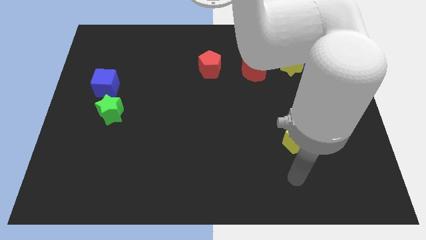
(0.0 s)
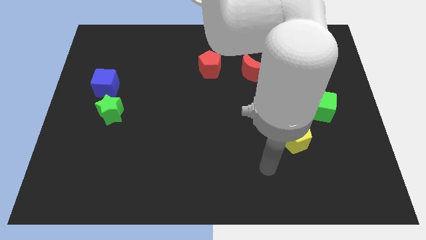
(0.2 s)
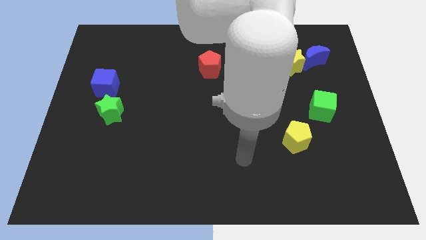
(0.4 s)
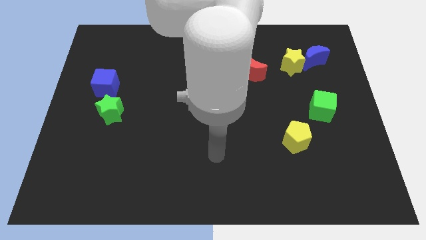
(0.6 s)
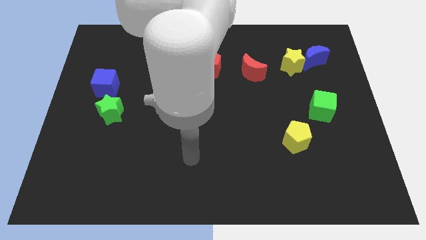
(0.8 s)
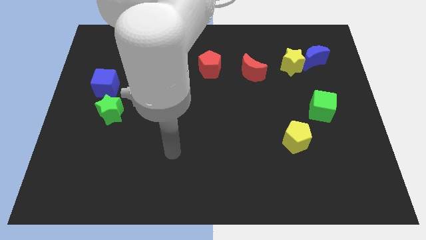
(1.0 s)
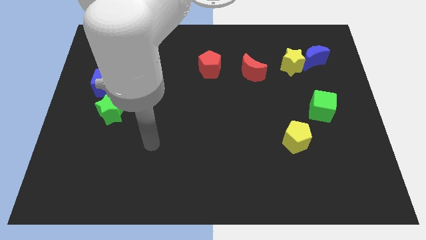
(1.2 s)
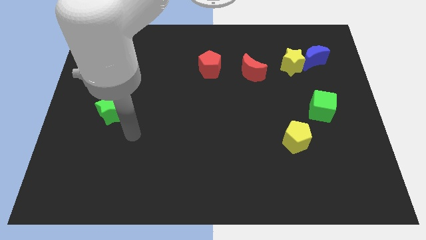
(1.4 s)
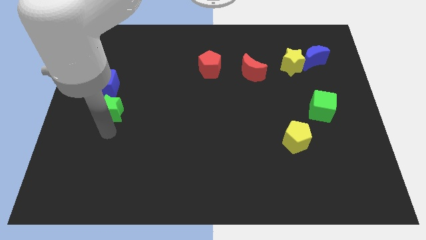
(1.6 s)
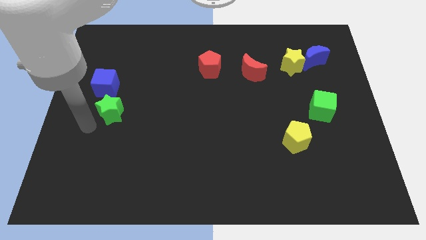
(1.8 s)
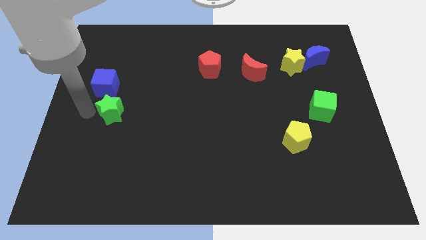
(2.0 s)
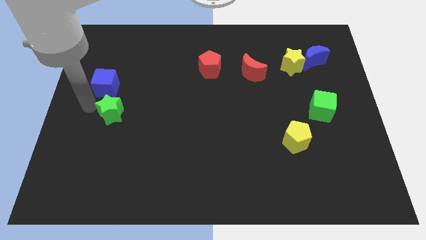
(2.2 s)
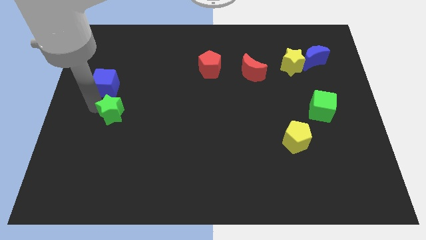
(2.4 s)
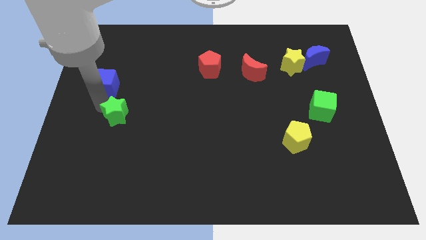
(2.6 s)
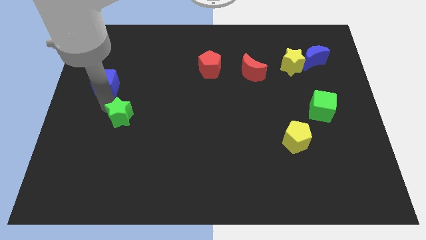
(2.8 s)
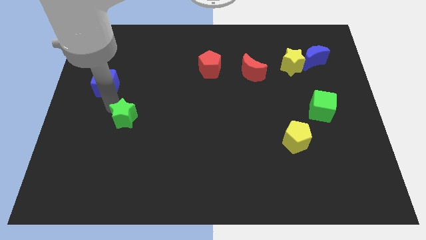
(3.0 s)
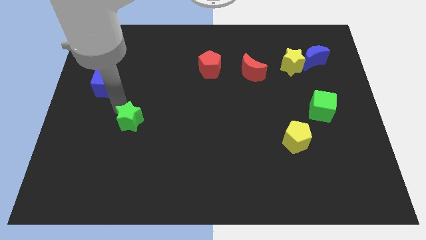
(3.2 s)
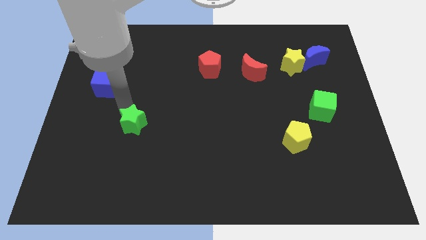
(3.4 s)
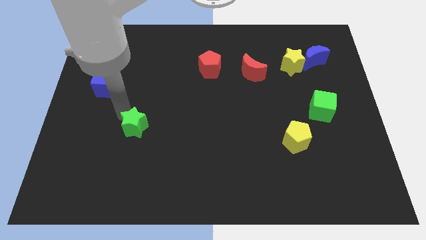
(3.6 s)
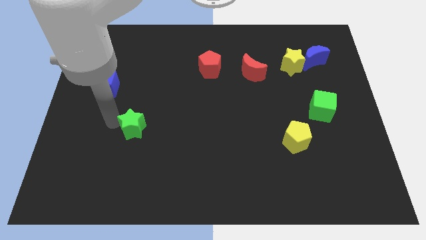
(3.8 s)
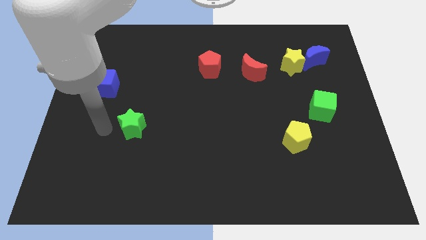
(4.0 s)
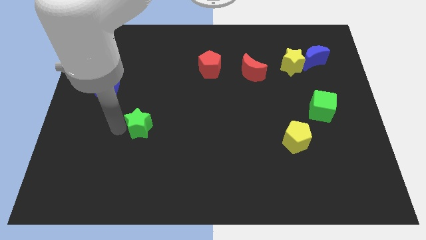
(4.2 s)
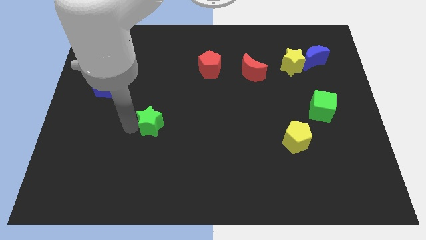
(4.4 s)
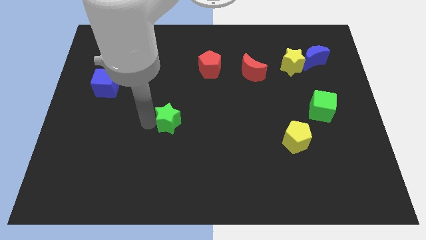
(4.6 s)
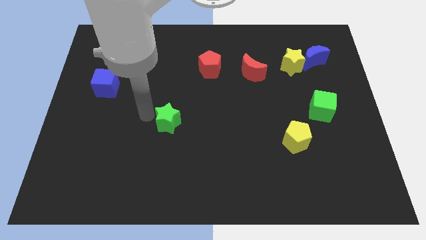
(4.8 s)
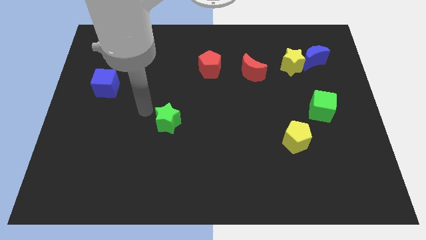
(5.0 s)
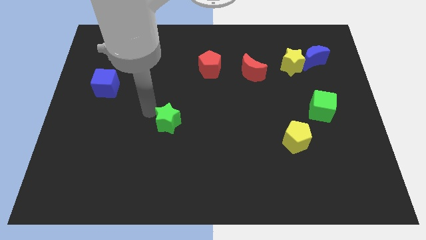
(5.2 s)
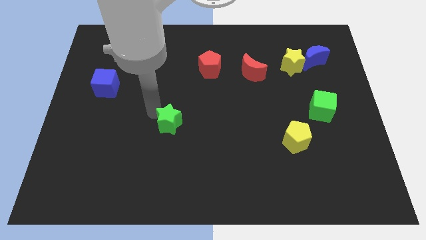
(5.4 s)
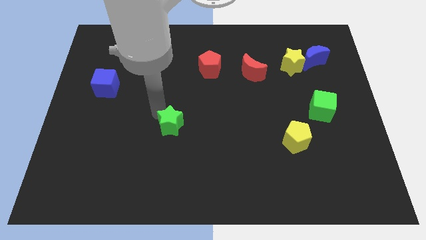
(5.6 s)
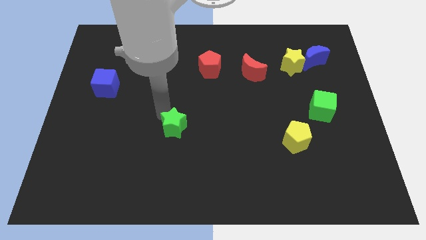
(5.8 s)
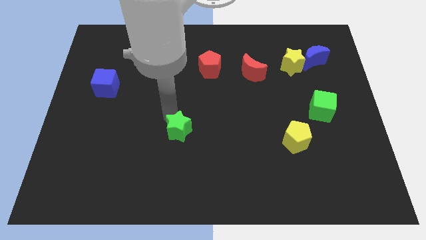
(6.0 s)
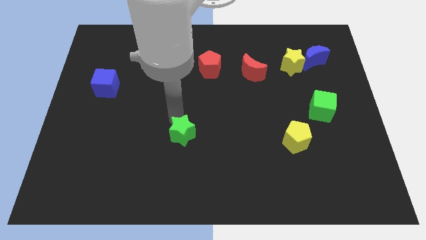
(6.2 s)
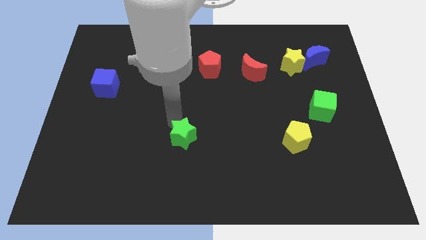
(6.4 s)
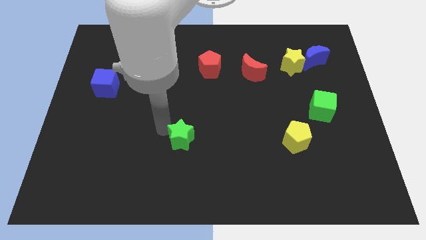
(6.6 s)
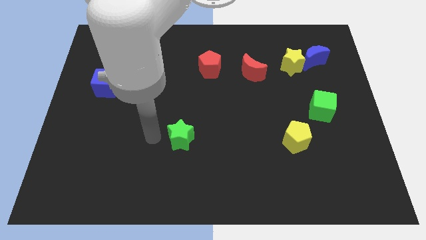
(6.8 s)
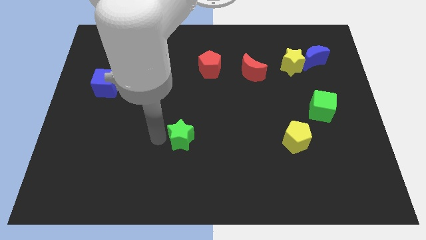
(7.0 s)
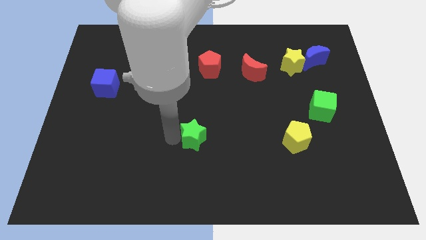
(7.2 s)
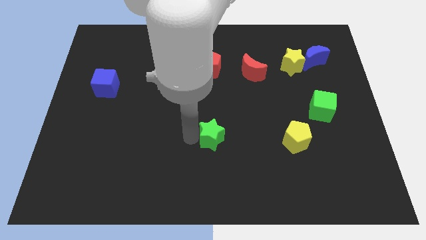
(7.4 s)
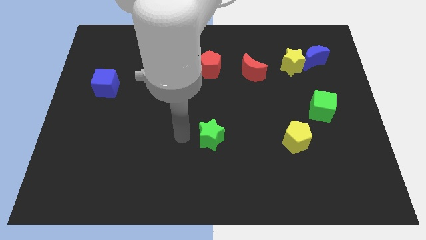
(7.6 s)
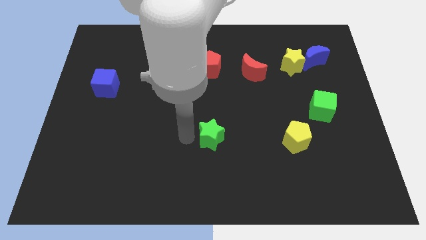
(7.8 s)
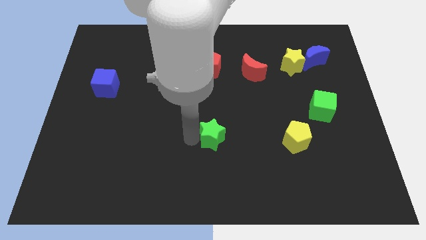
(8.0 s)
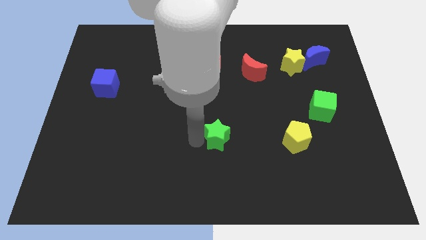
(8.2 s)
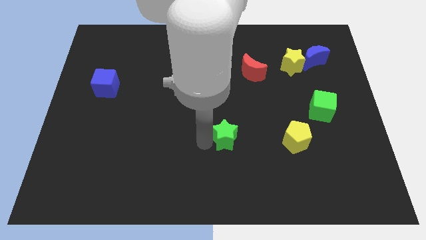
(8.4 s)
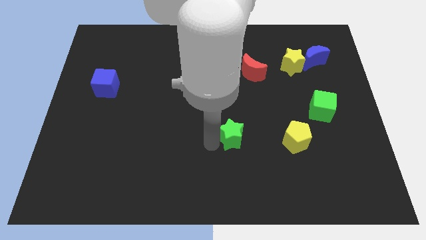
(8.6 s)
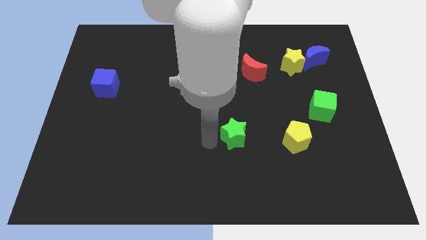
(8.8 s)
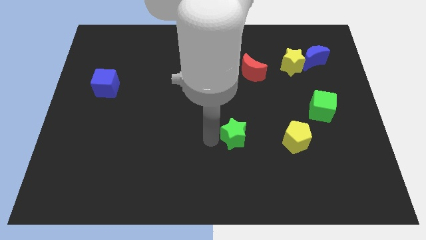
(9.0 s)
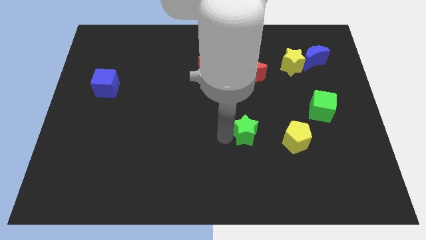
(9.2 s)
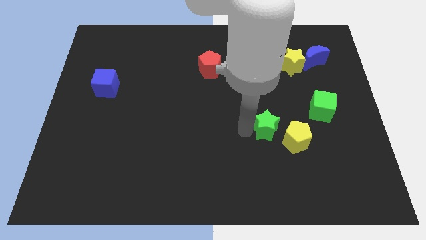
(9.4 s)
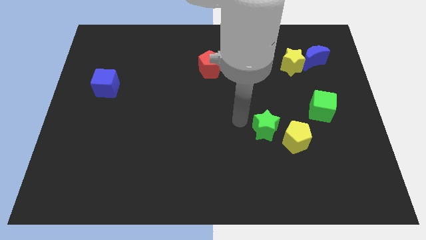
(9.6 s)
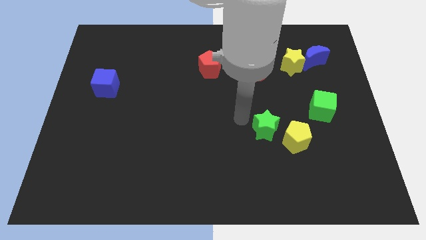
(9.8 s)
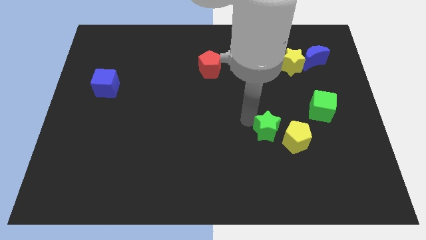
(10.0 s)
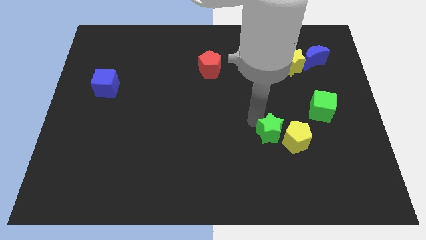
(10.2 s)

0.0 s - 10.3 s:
slide the green star towards the yellow pentagon

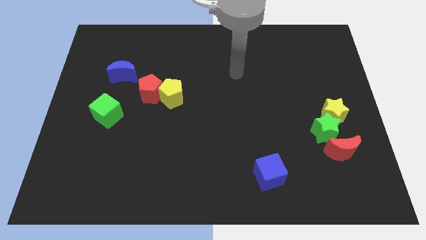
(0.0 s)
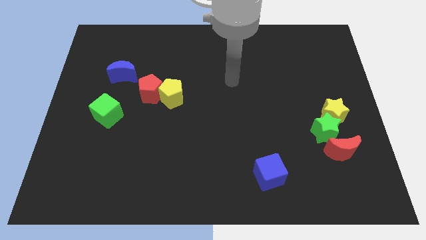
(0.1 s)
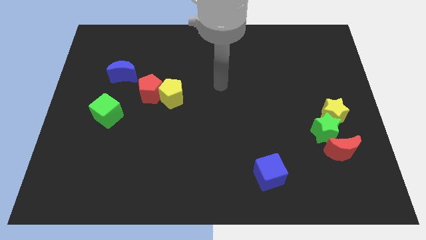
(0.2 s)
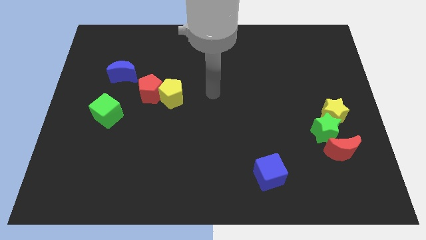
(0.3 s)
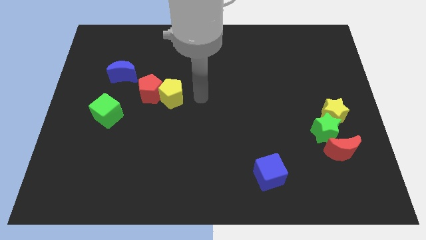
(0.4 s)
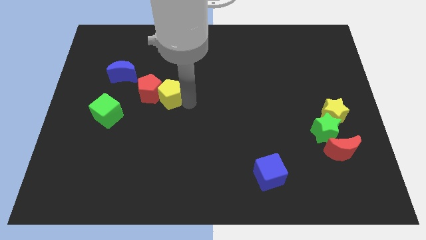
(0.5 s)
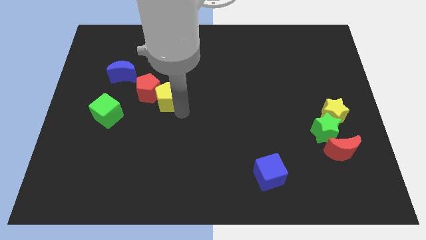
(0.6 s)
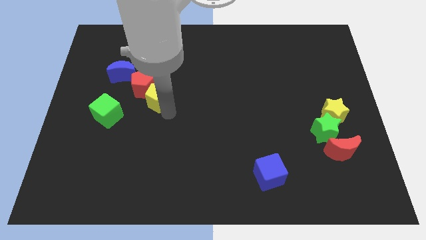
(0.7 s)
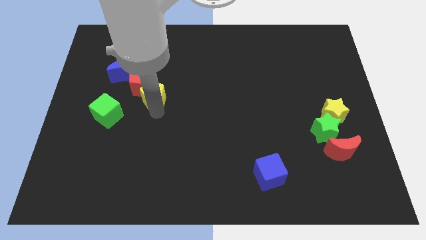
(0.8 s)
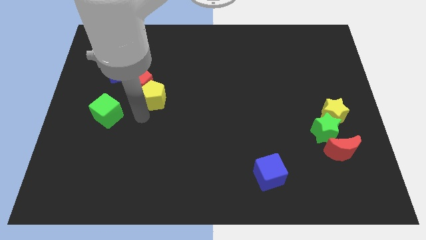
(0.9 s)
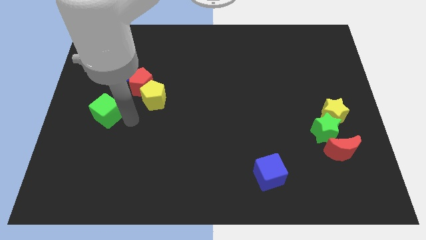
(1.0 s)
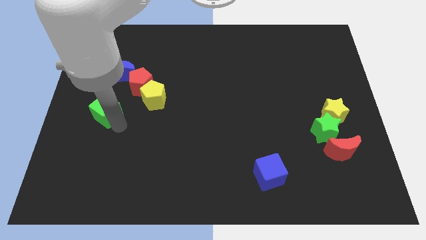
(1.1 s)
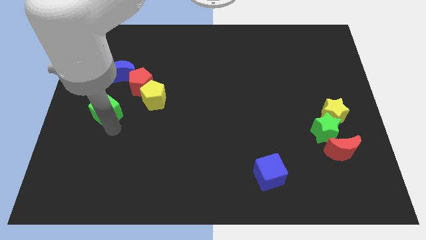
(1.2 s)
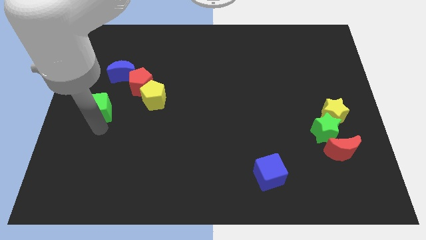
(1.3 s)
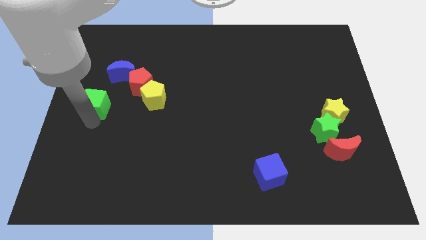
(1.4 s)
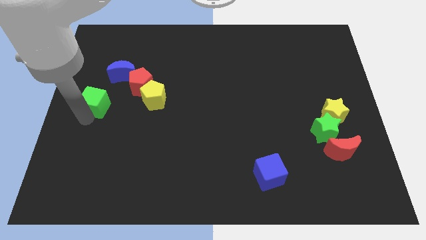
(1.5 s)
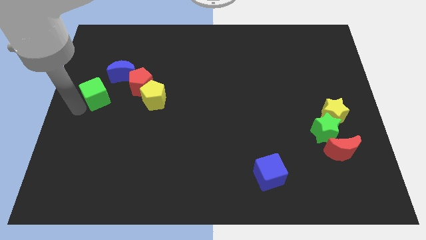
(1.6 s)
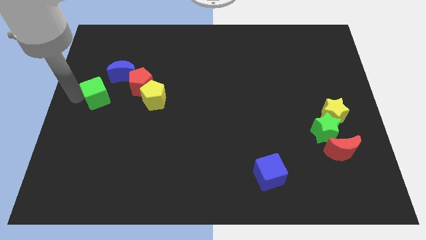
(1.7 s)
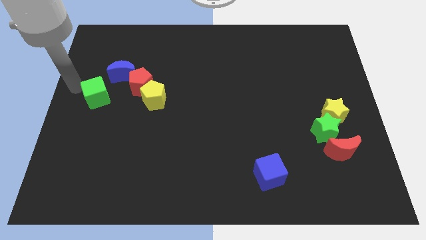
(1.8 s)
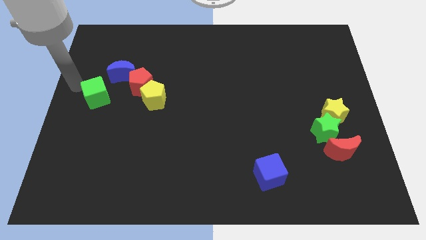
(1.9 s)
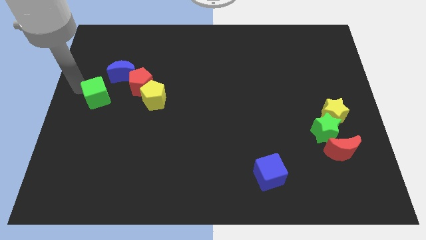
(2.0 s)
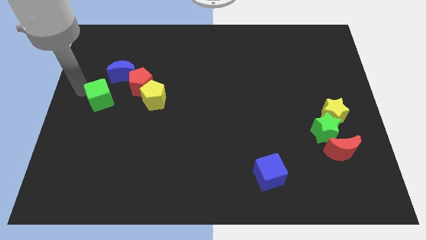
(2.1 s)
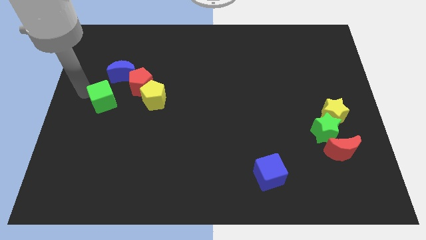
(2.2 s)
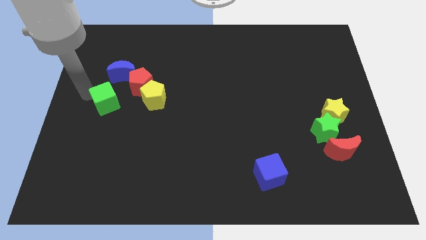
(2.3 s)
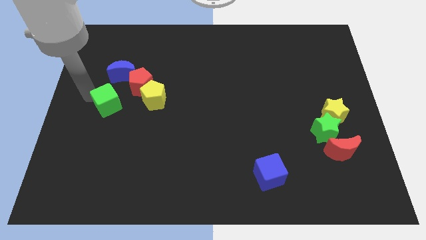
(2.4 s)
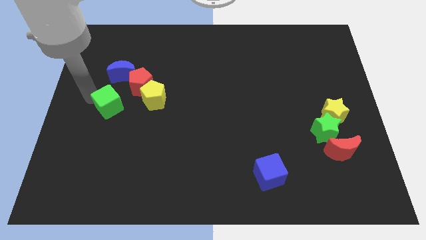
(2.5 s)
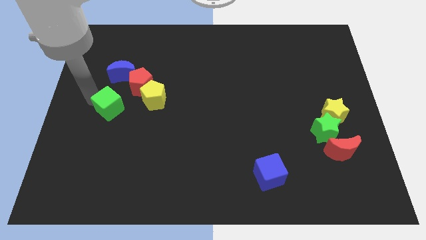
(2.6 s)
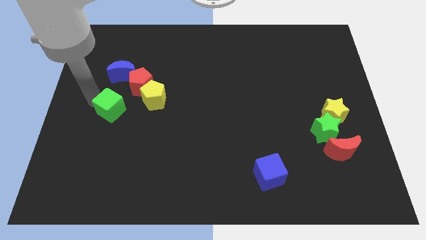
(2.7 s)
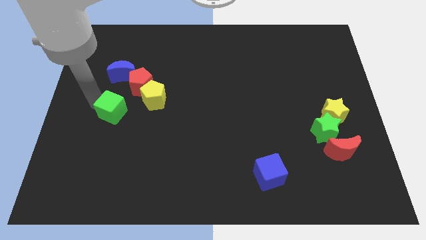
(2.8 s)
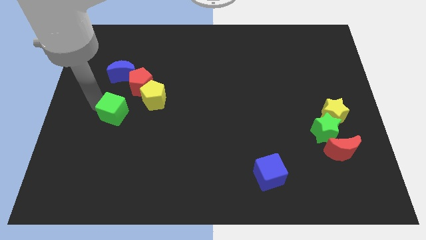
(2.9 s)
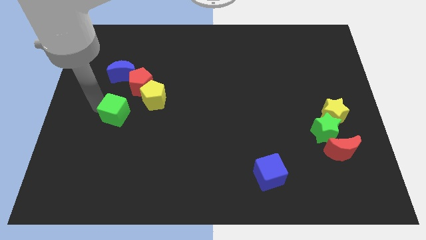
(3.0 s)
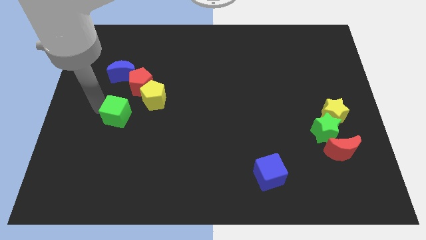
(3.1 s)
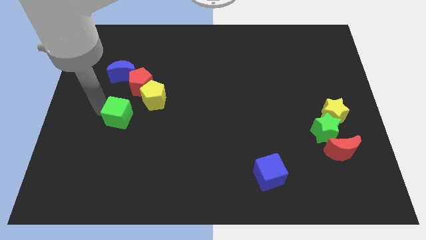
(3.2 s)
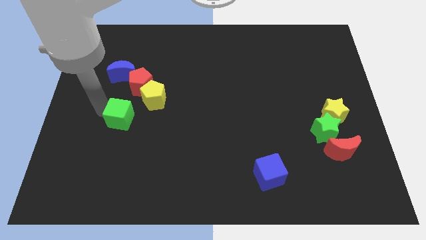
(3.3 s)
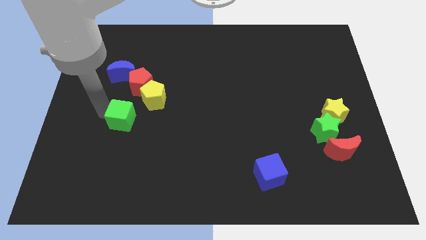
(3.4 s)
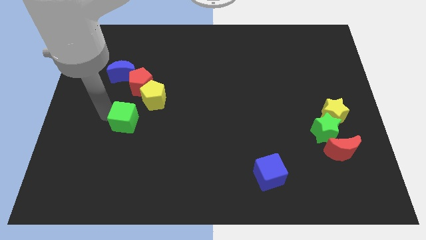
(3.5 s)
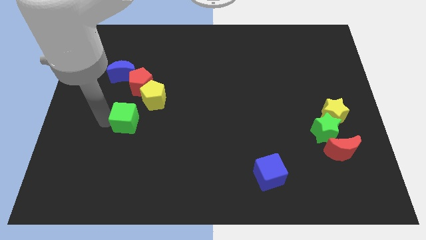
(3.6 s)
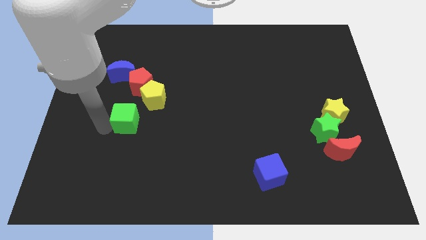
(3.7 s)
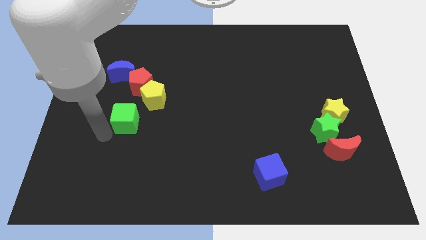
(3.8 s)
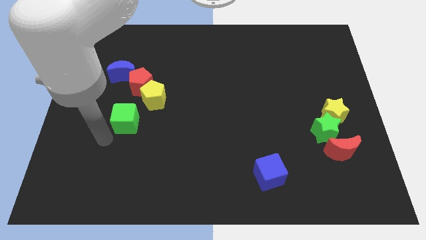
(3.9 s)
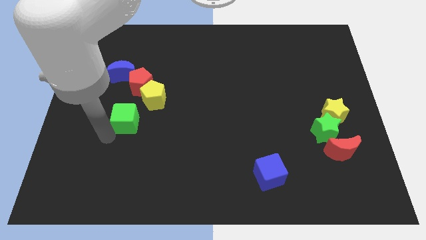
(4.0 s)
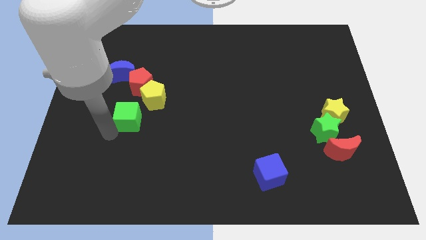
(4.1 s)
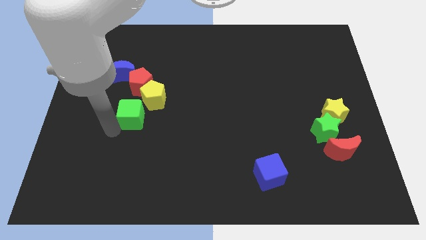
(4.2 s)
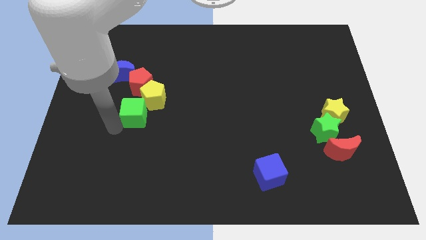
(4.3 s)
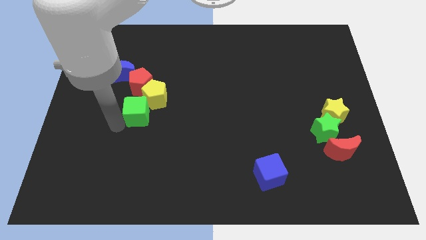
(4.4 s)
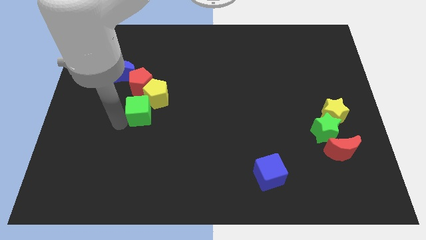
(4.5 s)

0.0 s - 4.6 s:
move the green cube to the yellow pentagon
